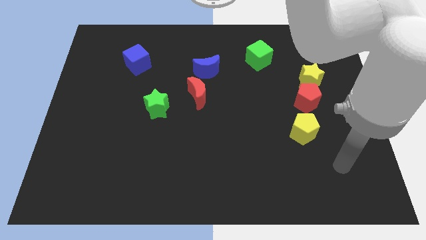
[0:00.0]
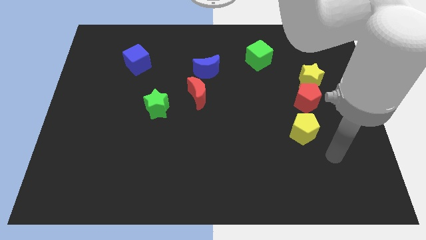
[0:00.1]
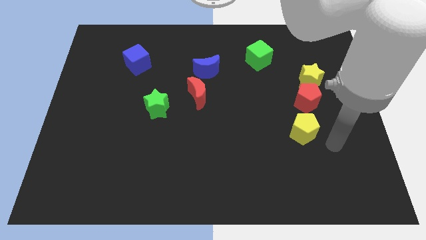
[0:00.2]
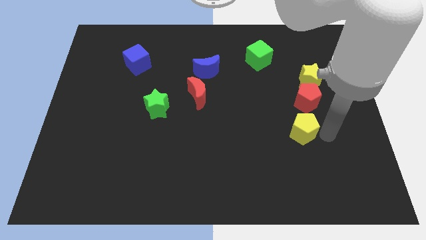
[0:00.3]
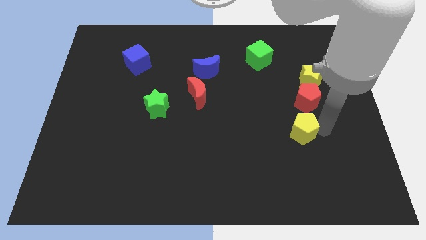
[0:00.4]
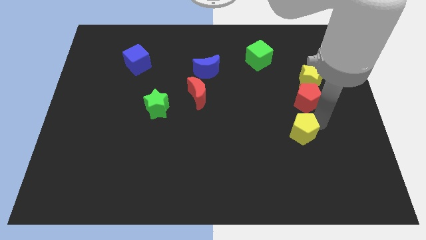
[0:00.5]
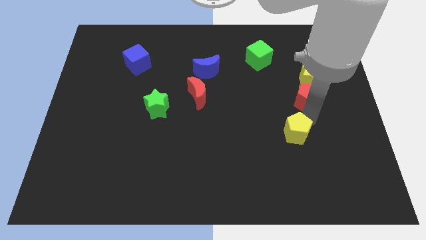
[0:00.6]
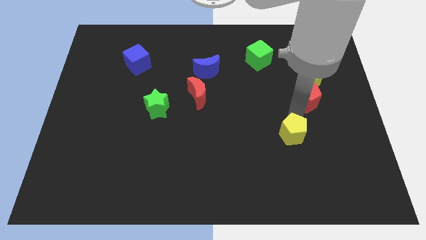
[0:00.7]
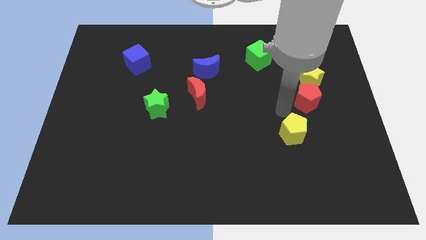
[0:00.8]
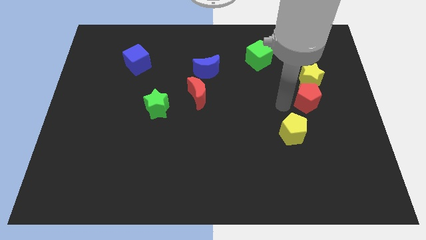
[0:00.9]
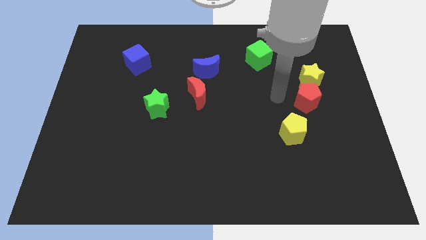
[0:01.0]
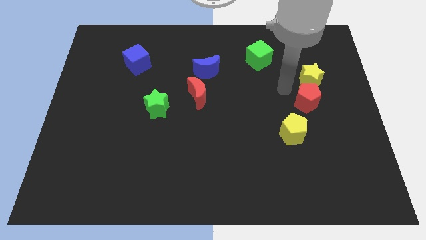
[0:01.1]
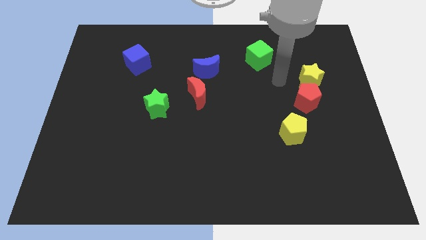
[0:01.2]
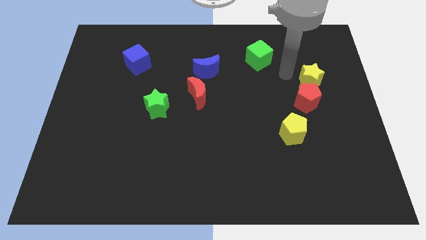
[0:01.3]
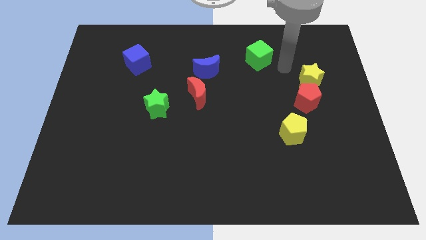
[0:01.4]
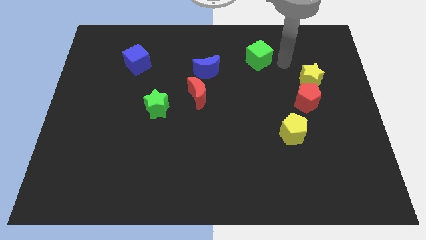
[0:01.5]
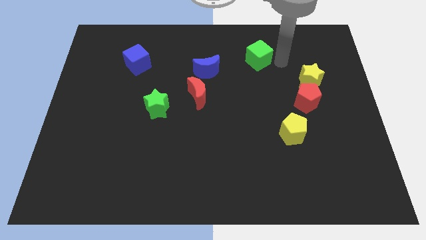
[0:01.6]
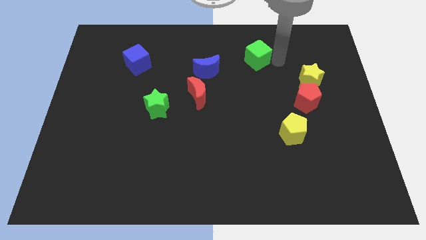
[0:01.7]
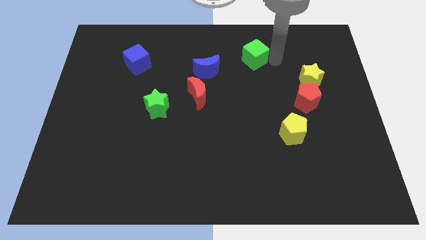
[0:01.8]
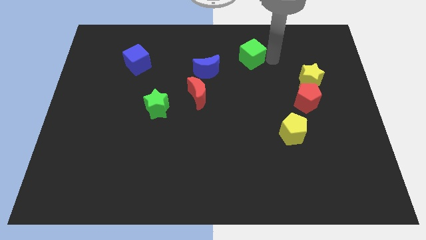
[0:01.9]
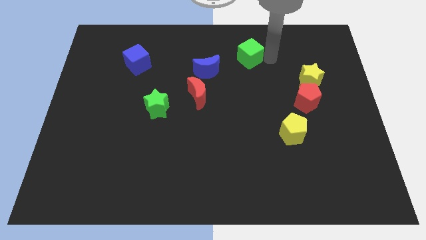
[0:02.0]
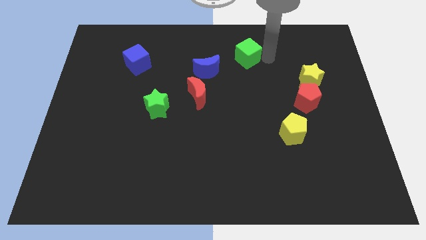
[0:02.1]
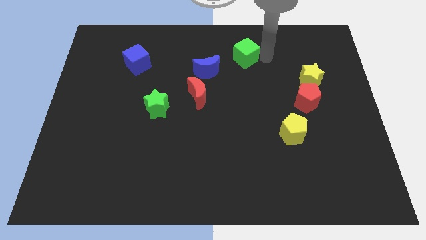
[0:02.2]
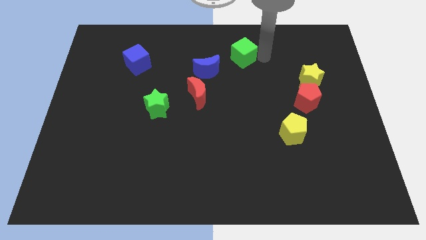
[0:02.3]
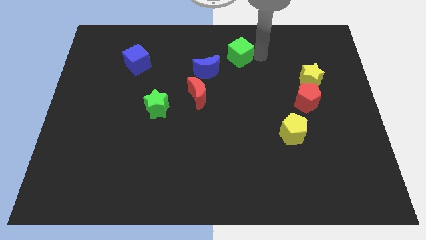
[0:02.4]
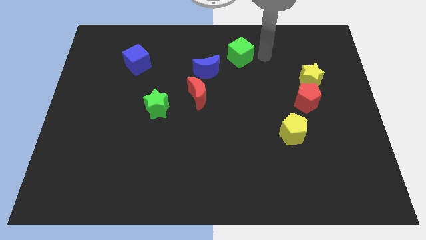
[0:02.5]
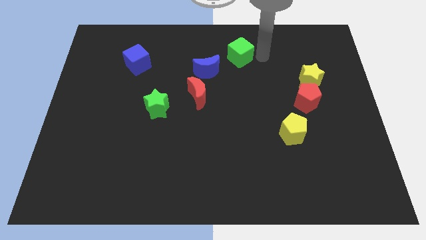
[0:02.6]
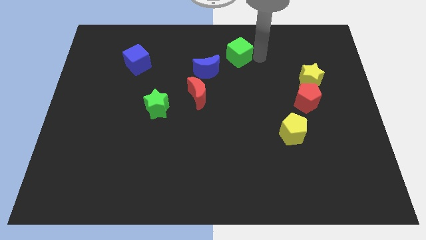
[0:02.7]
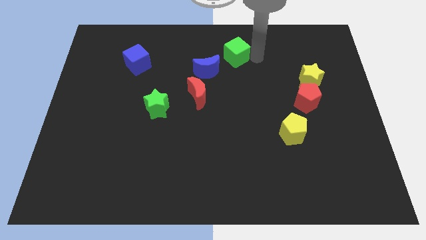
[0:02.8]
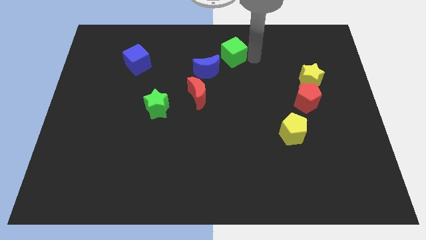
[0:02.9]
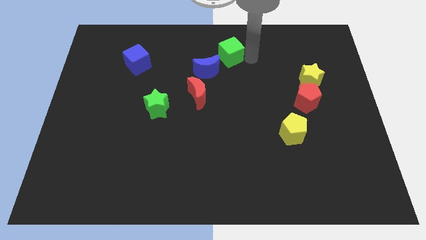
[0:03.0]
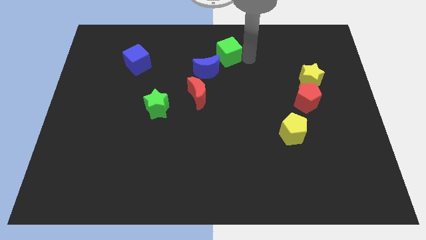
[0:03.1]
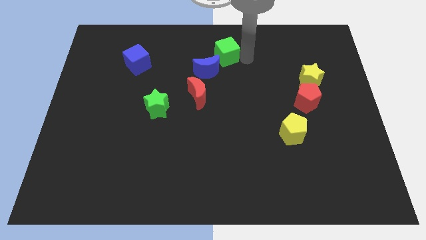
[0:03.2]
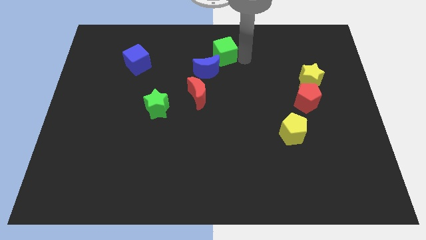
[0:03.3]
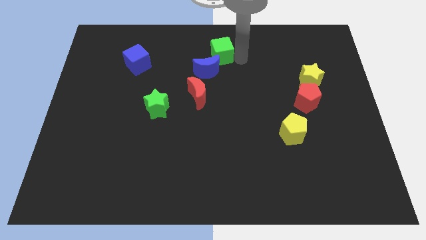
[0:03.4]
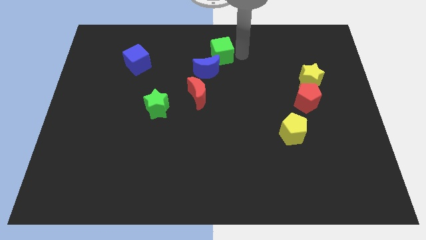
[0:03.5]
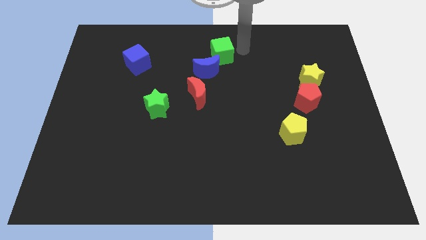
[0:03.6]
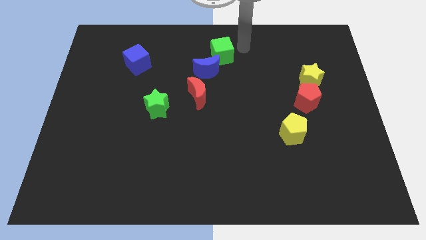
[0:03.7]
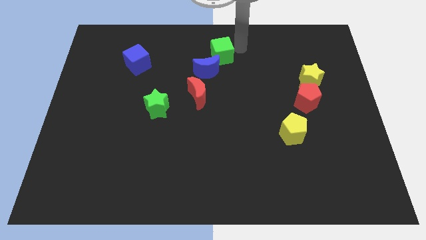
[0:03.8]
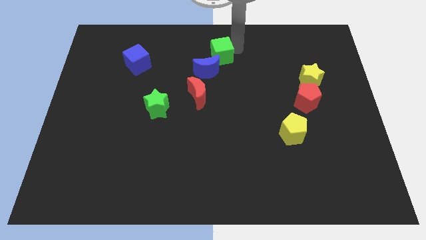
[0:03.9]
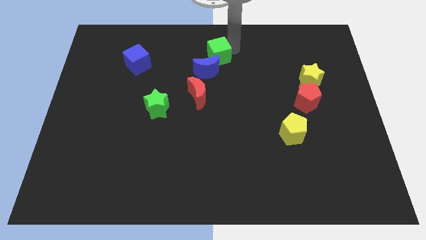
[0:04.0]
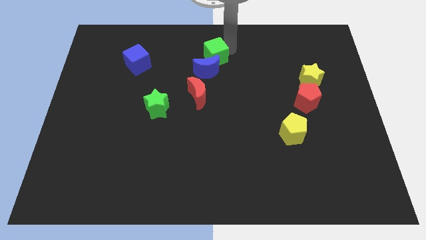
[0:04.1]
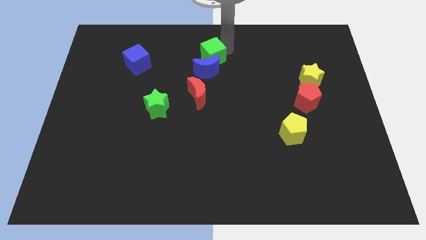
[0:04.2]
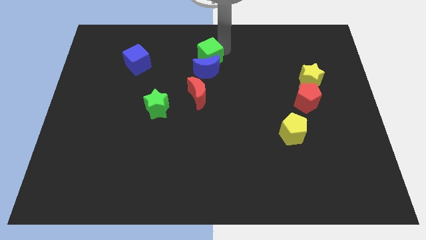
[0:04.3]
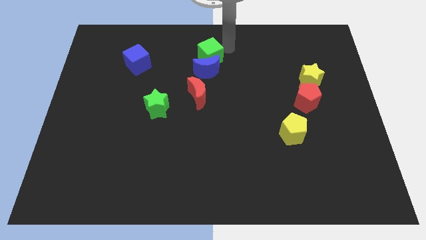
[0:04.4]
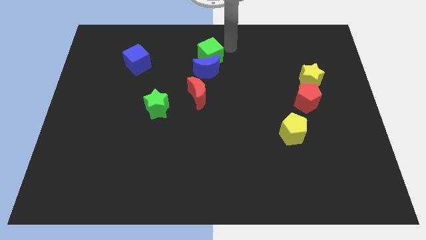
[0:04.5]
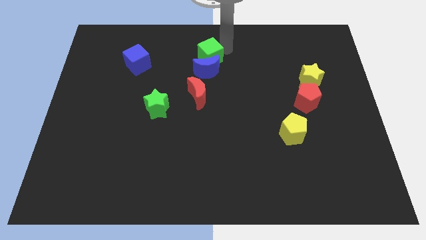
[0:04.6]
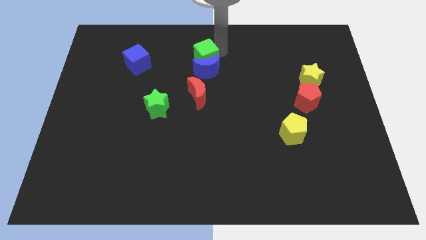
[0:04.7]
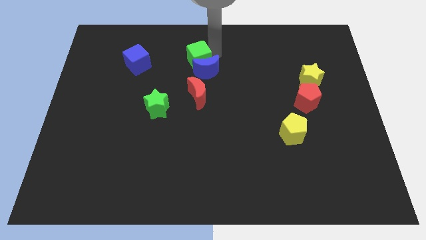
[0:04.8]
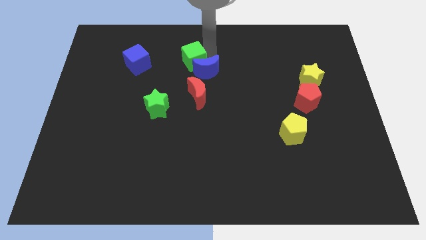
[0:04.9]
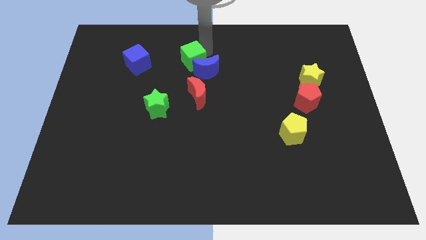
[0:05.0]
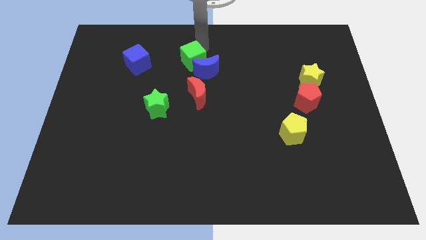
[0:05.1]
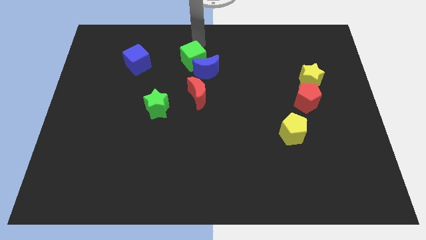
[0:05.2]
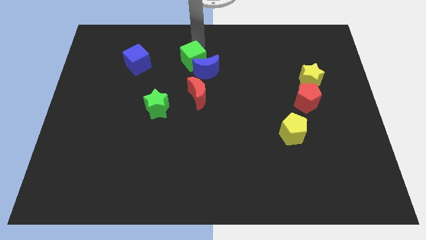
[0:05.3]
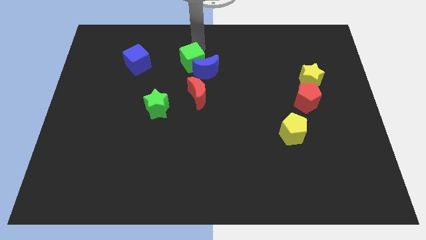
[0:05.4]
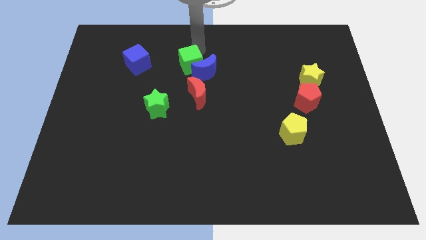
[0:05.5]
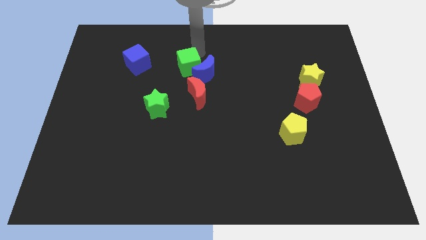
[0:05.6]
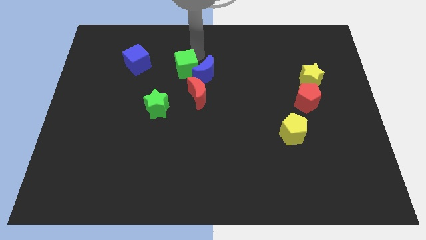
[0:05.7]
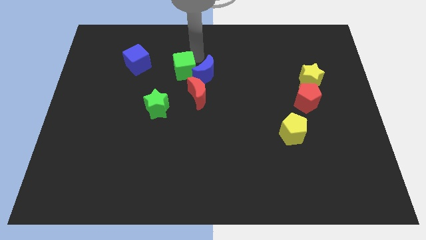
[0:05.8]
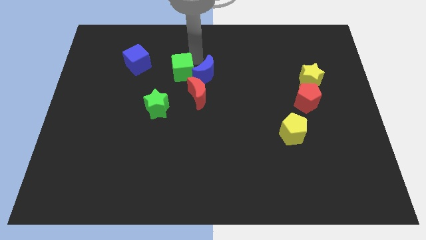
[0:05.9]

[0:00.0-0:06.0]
slide the green cube to the bottom left of the blue moon

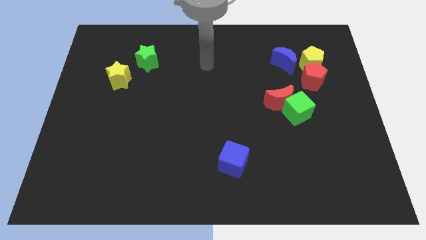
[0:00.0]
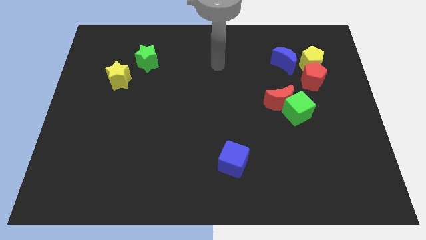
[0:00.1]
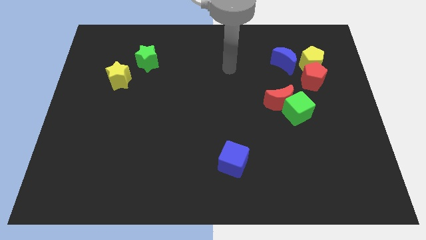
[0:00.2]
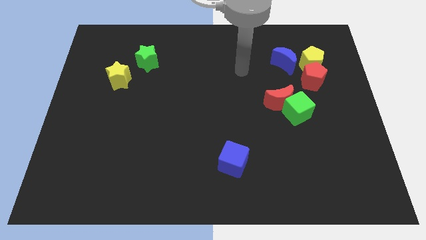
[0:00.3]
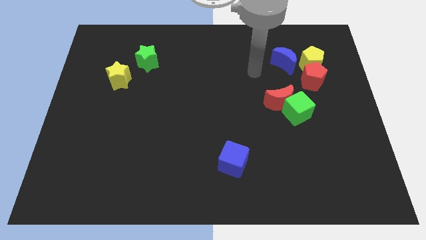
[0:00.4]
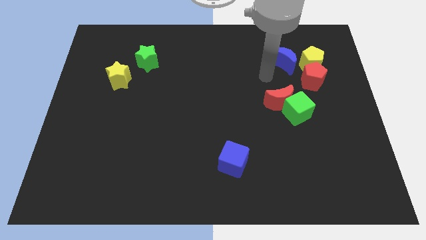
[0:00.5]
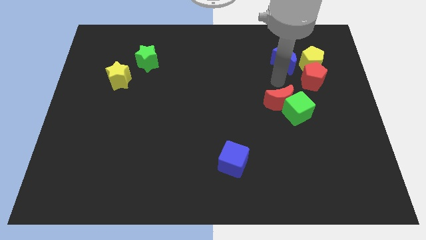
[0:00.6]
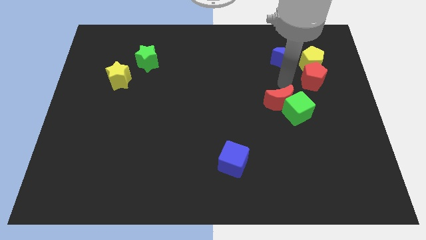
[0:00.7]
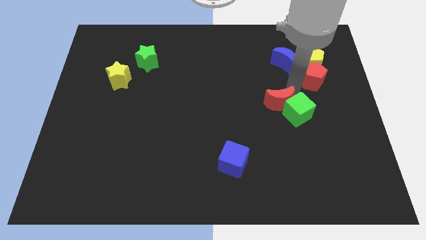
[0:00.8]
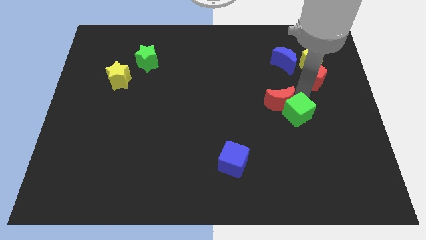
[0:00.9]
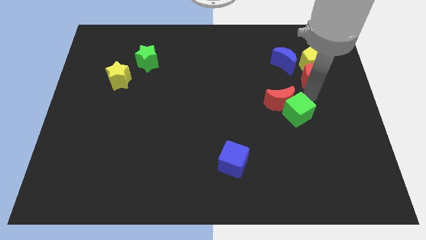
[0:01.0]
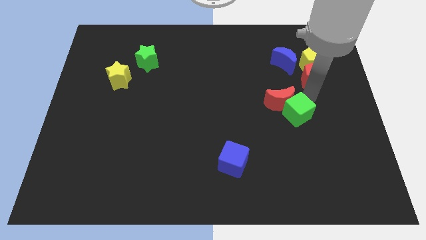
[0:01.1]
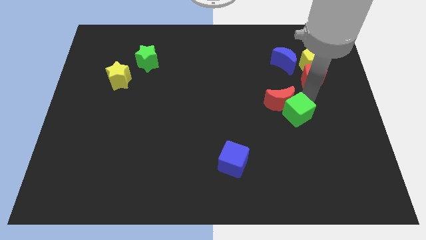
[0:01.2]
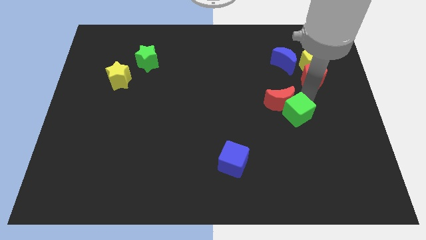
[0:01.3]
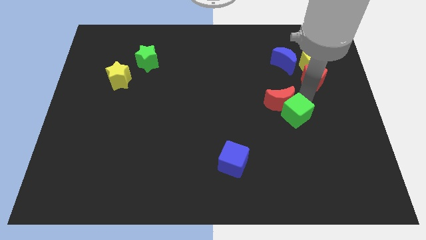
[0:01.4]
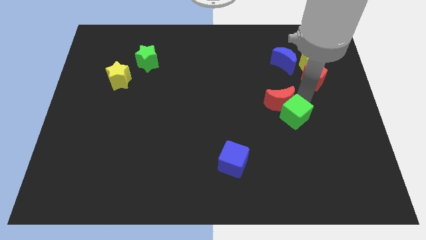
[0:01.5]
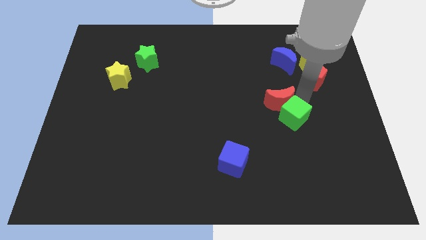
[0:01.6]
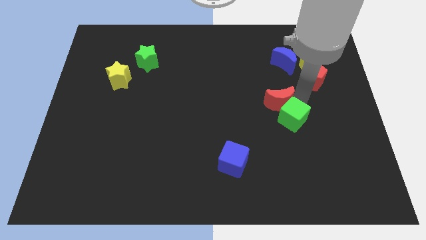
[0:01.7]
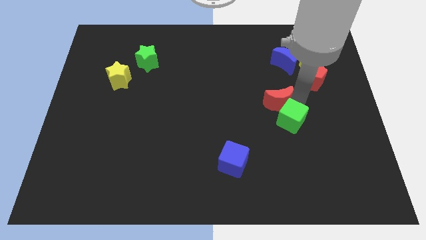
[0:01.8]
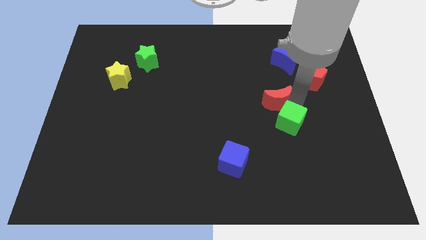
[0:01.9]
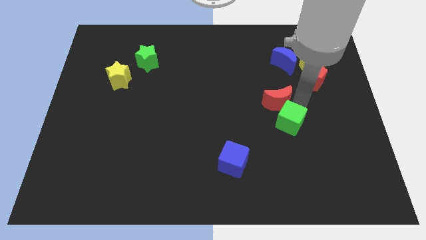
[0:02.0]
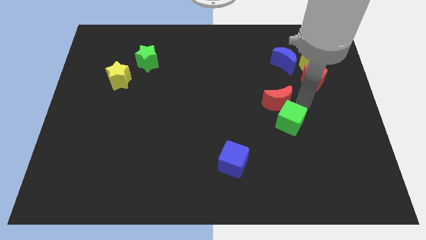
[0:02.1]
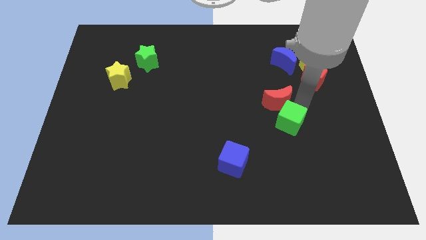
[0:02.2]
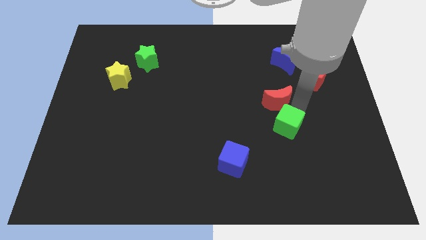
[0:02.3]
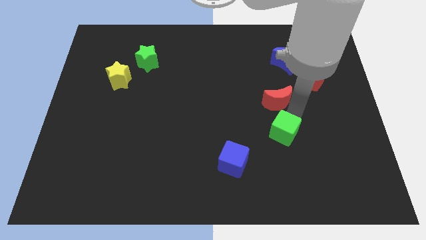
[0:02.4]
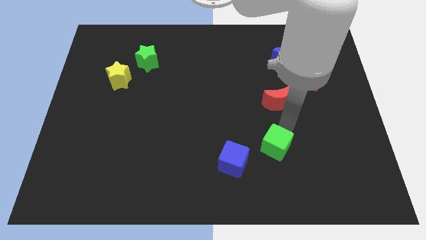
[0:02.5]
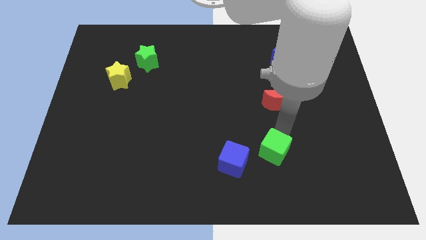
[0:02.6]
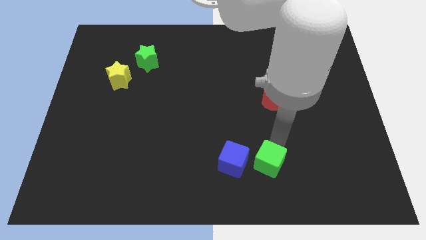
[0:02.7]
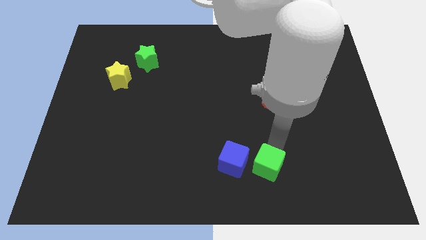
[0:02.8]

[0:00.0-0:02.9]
slide the green cube to the bottom right side of the blue cube
